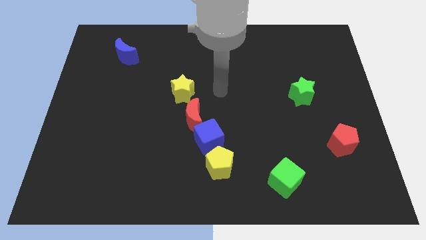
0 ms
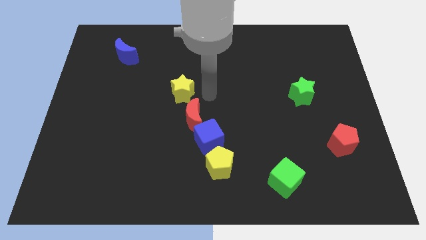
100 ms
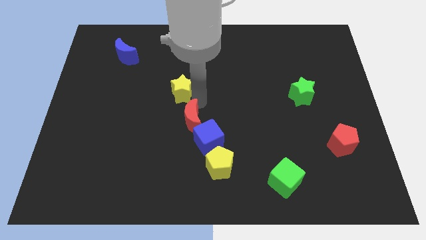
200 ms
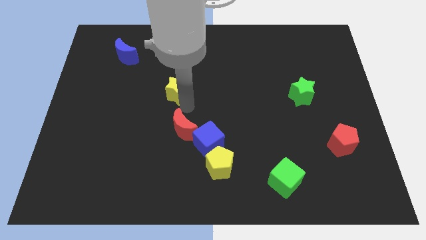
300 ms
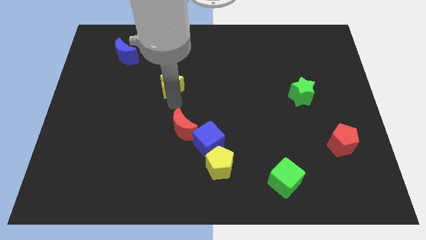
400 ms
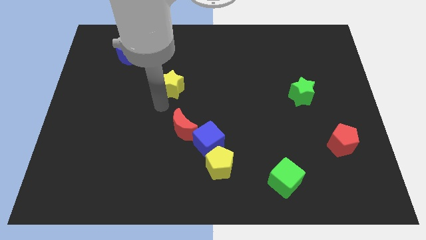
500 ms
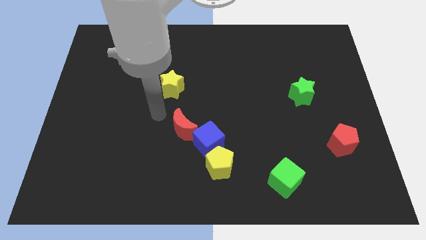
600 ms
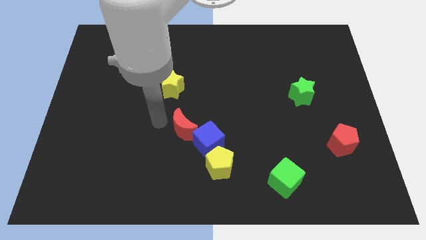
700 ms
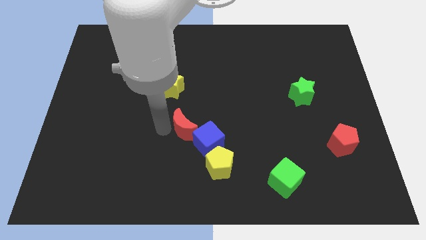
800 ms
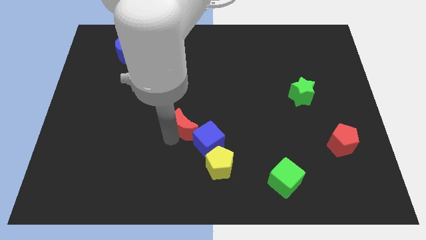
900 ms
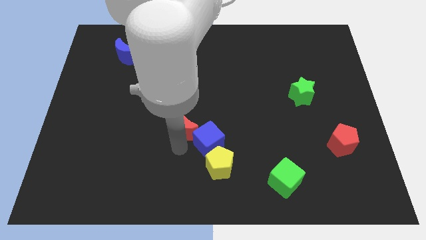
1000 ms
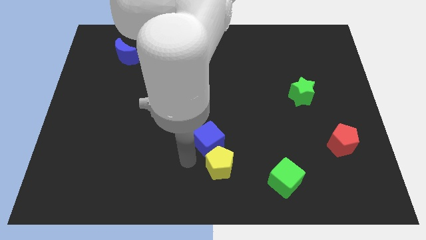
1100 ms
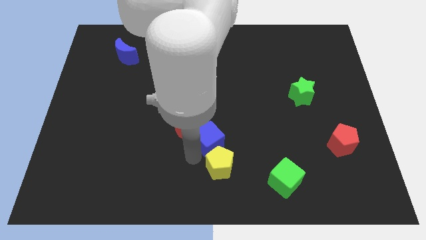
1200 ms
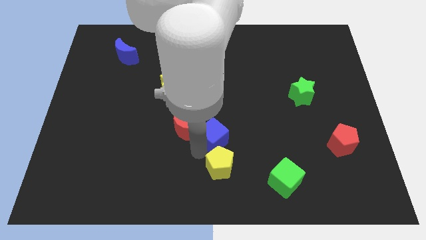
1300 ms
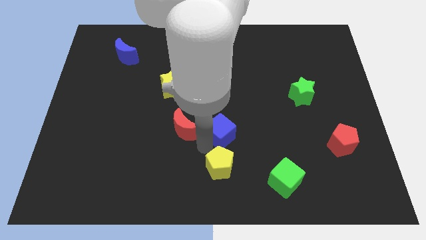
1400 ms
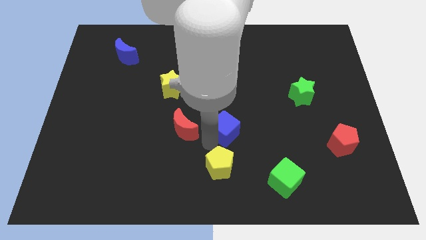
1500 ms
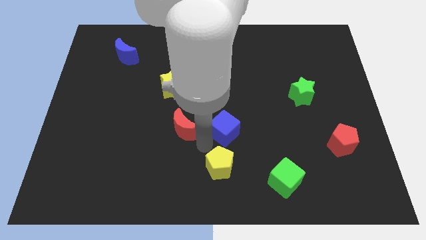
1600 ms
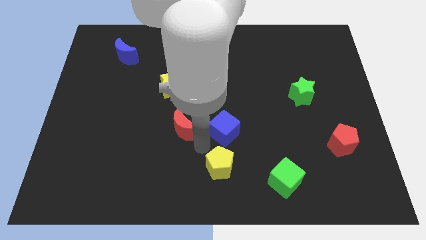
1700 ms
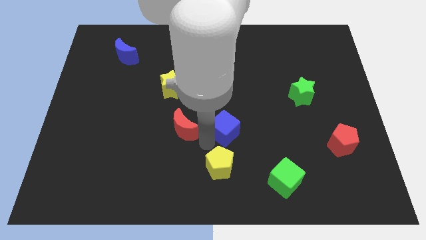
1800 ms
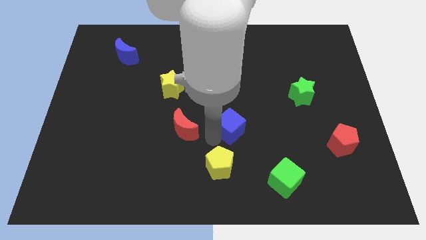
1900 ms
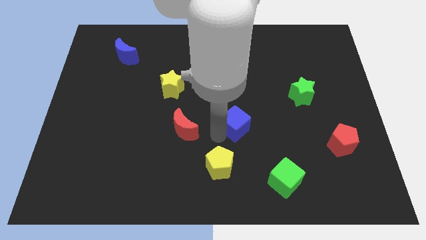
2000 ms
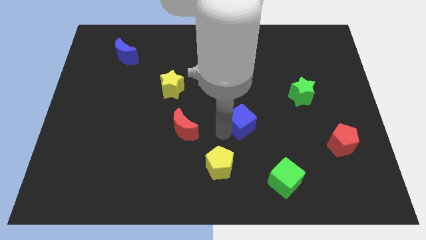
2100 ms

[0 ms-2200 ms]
separate the blue cube from the red moon and yellow pentagon

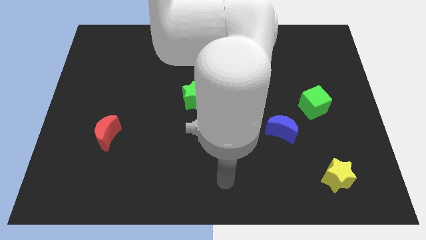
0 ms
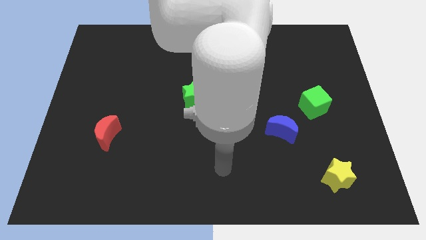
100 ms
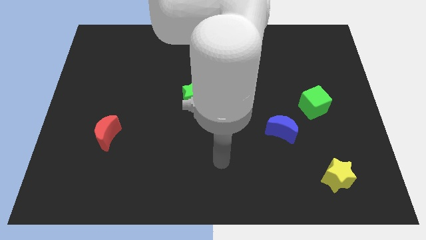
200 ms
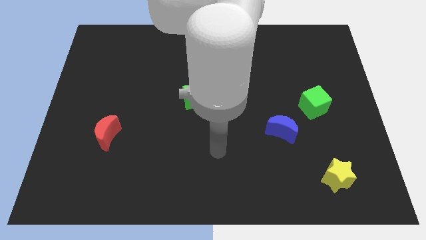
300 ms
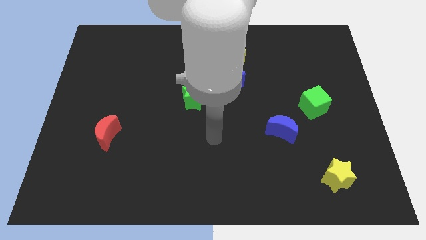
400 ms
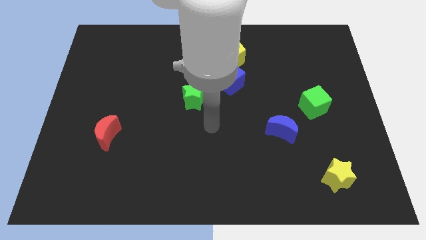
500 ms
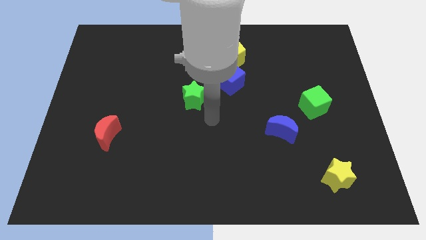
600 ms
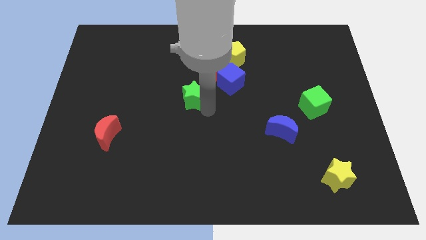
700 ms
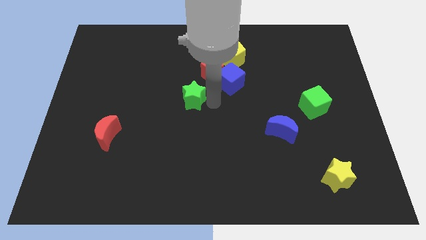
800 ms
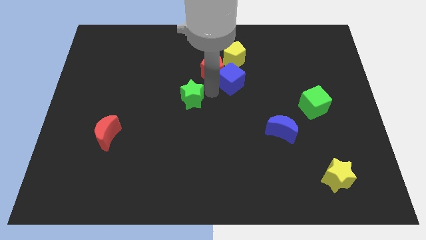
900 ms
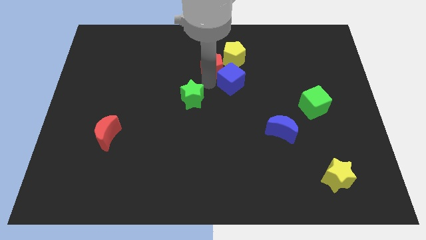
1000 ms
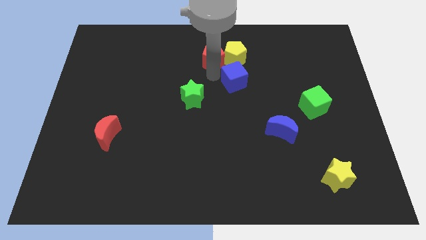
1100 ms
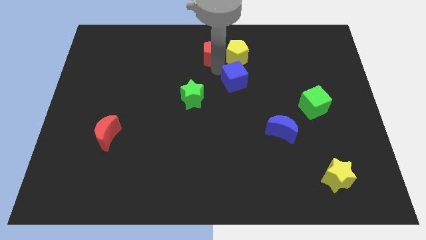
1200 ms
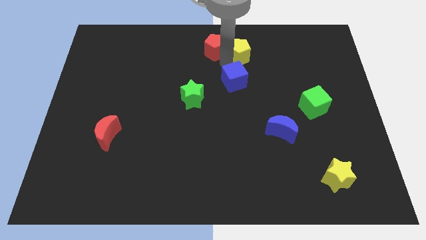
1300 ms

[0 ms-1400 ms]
separate the blue cube from the red pentagon and yellow pentagon

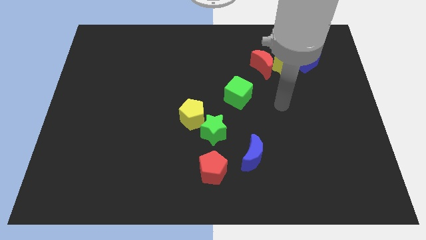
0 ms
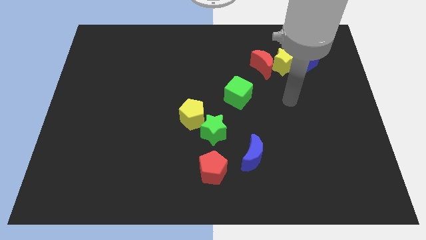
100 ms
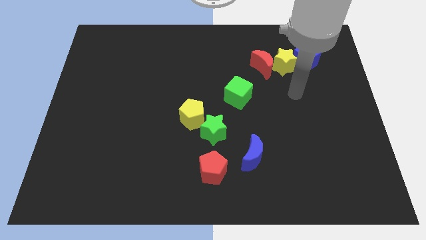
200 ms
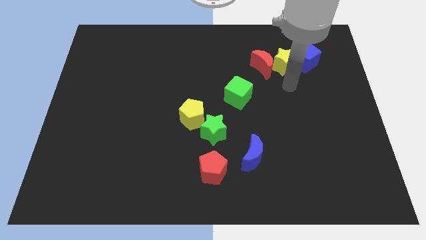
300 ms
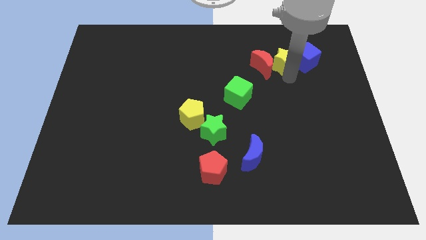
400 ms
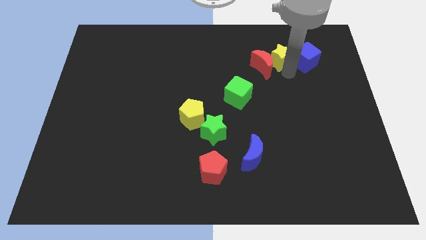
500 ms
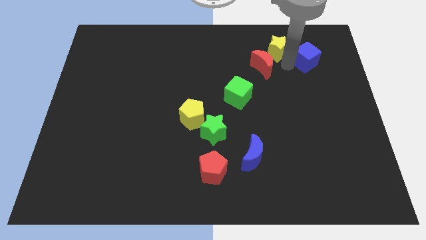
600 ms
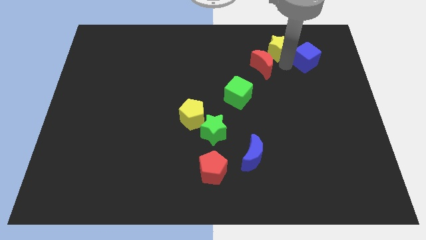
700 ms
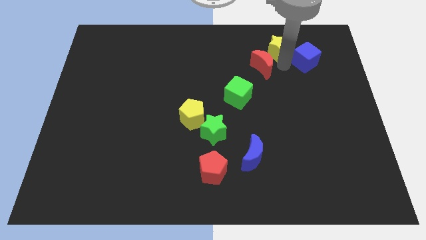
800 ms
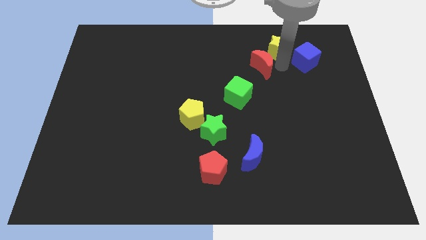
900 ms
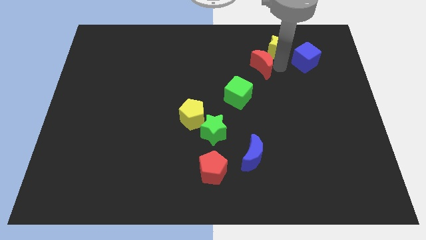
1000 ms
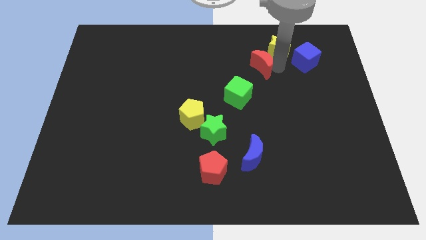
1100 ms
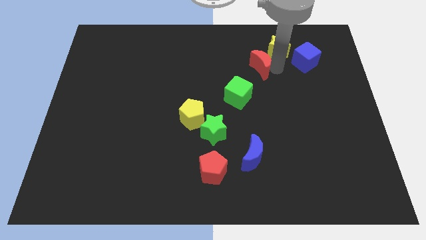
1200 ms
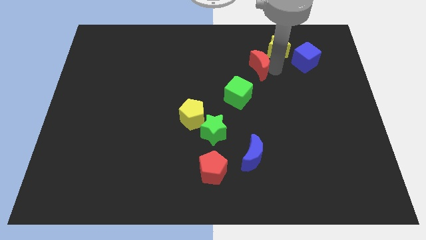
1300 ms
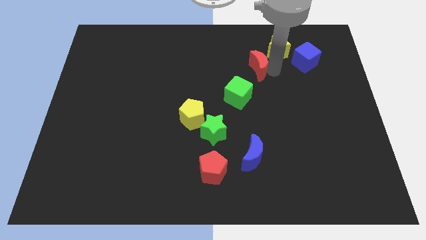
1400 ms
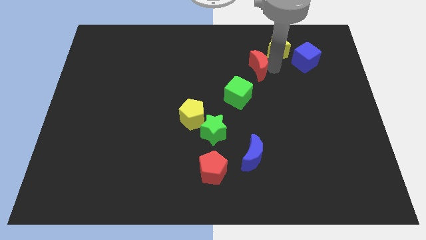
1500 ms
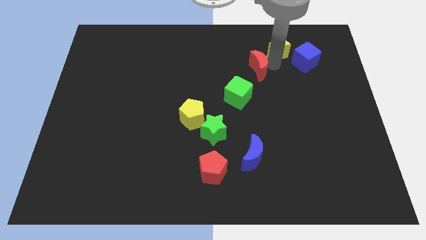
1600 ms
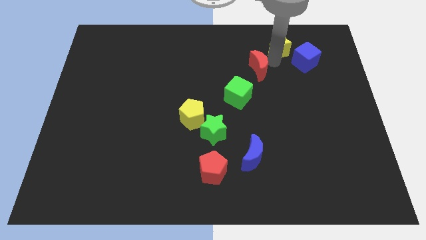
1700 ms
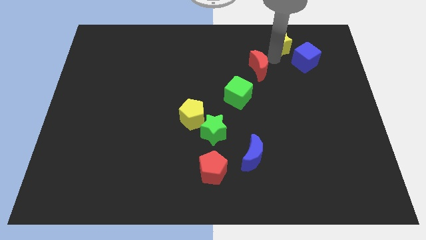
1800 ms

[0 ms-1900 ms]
move the red moon away from the yellow star

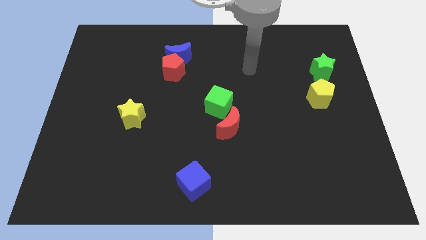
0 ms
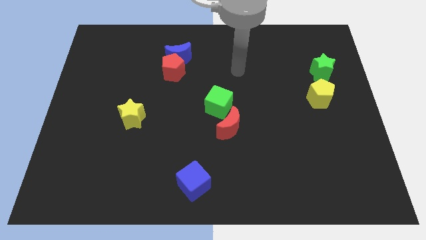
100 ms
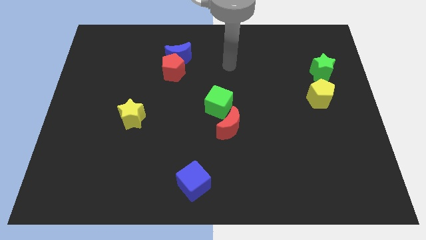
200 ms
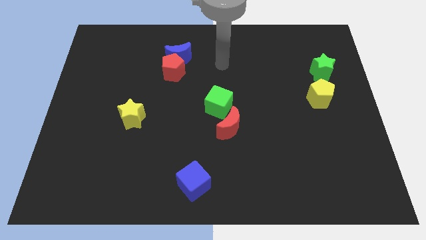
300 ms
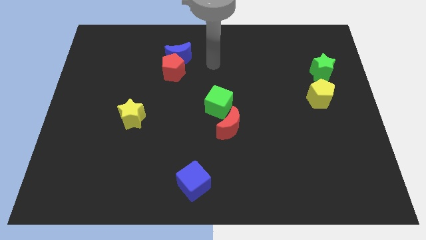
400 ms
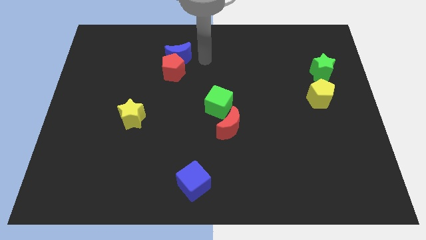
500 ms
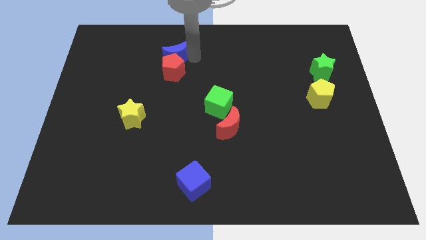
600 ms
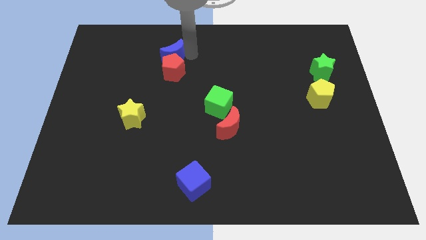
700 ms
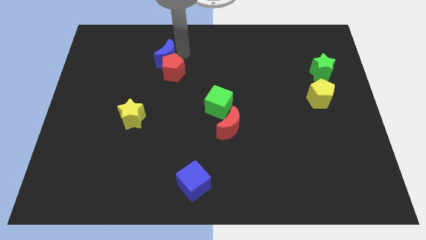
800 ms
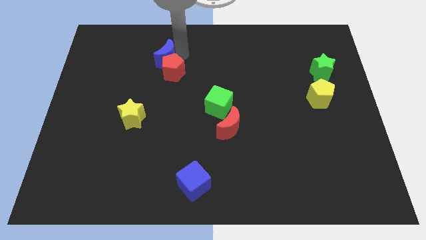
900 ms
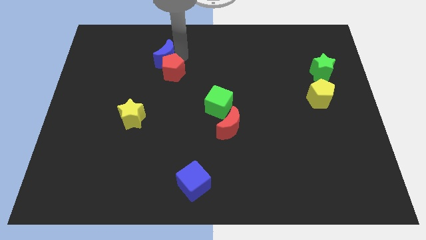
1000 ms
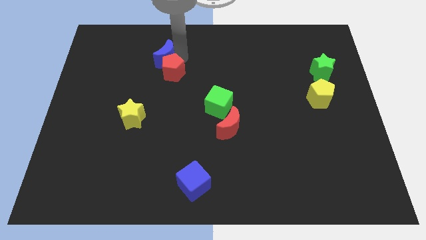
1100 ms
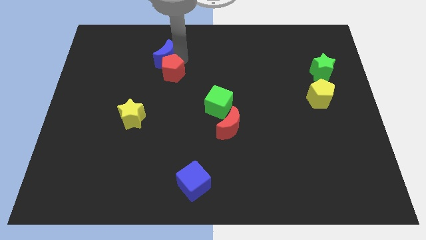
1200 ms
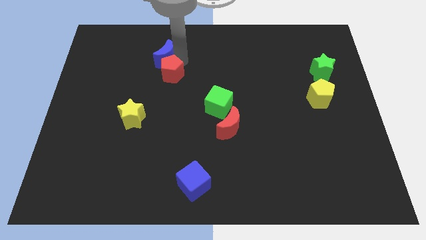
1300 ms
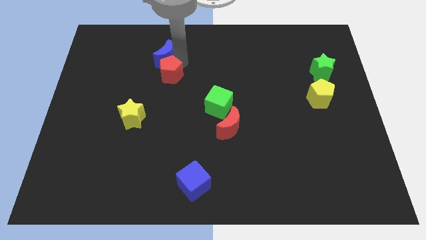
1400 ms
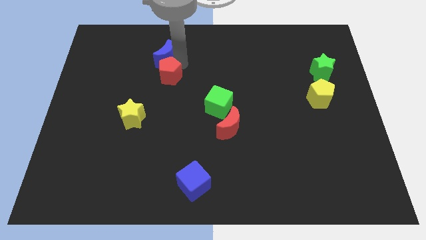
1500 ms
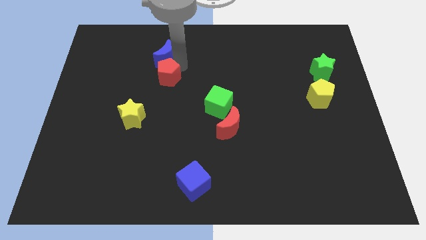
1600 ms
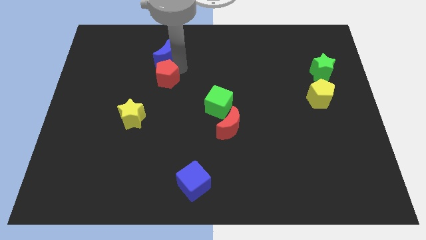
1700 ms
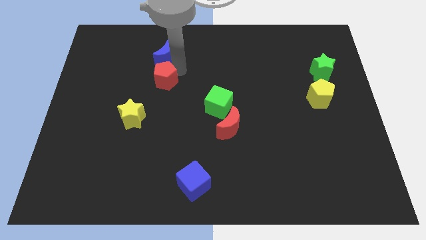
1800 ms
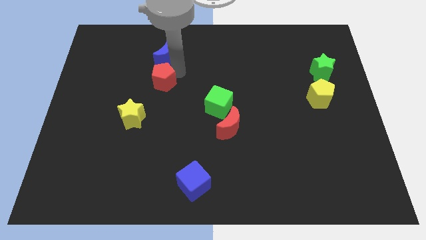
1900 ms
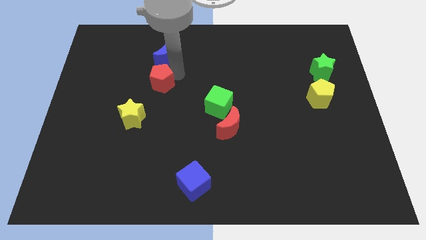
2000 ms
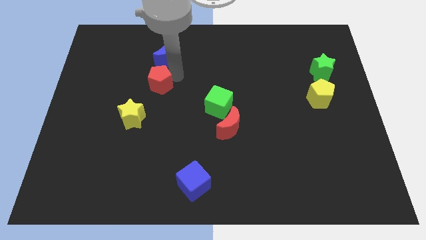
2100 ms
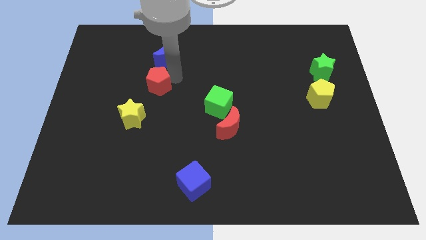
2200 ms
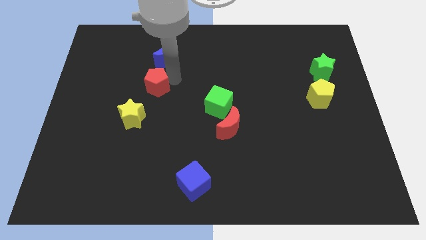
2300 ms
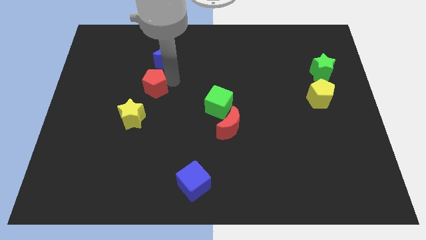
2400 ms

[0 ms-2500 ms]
separate the red pentagon from the blue moon

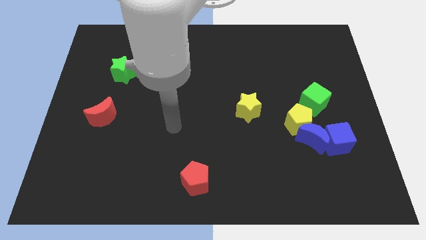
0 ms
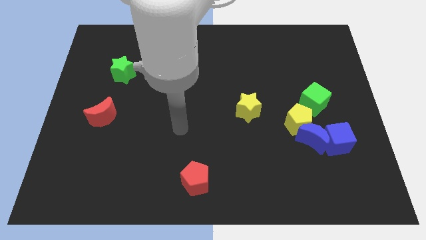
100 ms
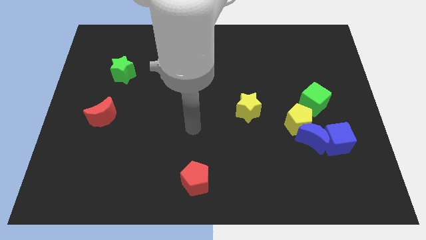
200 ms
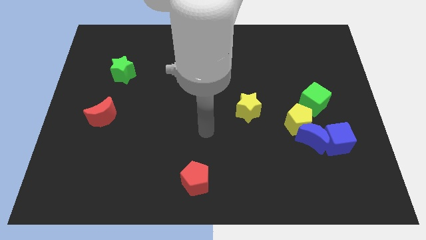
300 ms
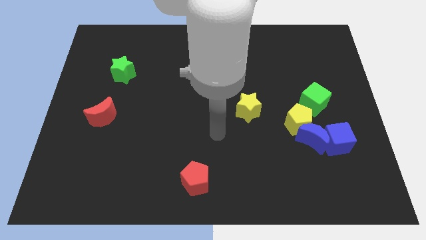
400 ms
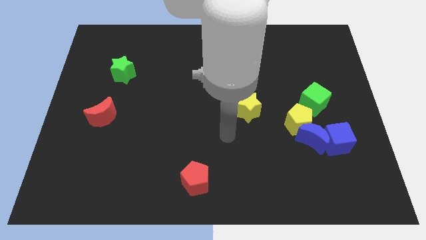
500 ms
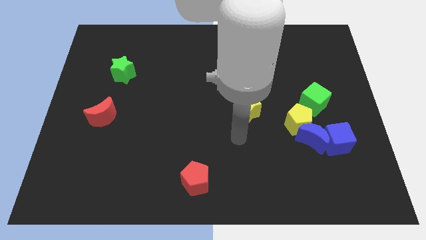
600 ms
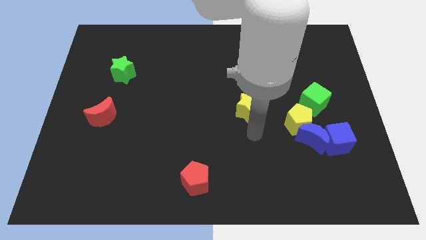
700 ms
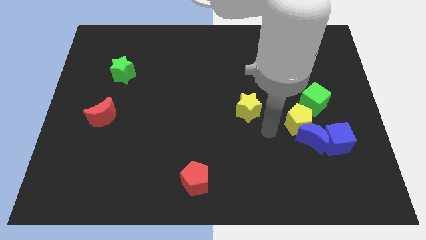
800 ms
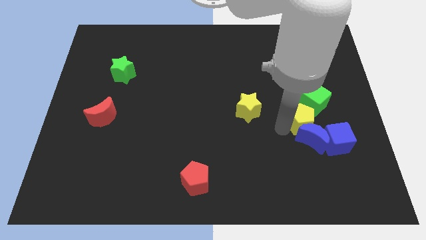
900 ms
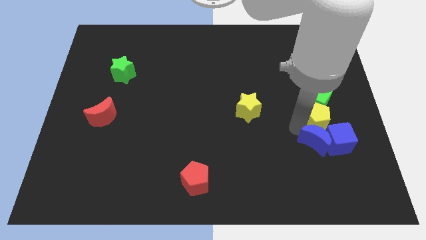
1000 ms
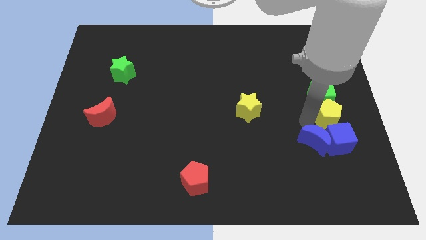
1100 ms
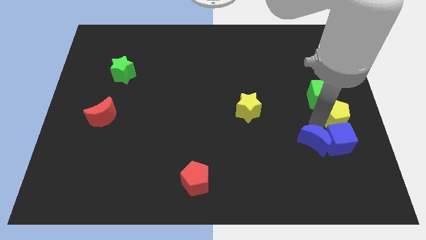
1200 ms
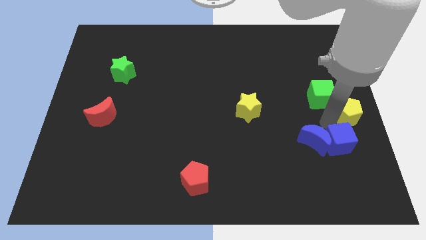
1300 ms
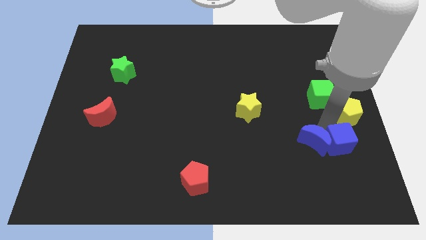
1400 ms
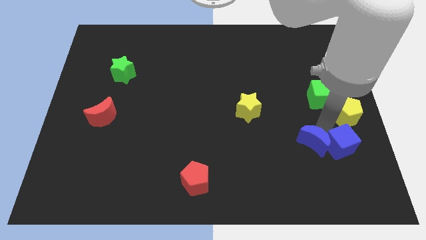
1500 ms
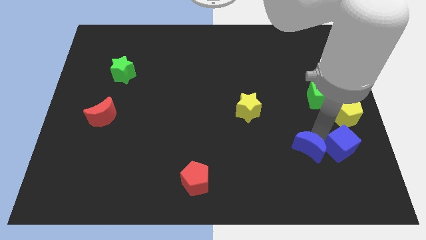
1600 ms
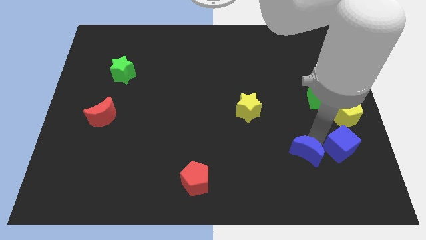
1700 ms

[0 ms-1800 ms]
pull the blue moon apart from the yellow pentagon and blue cube
